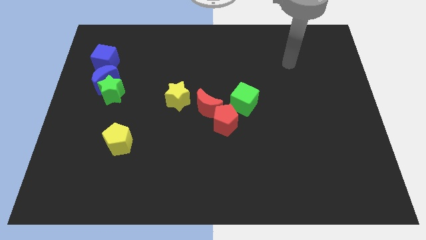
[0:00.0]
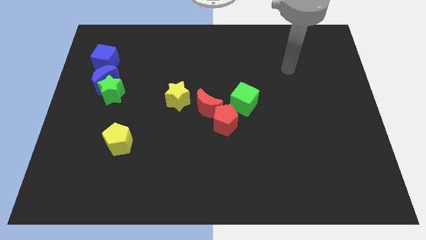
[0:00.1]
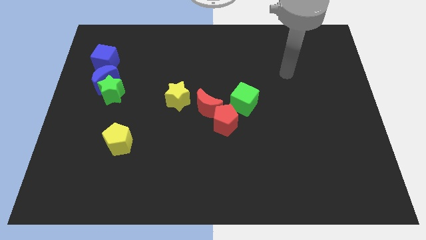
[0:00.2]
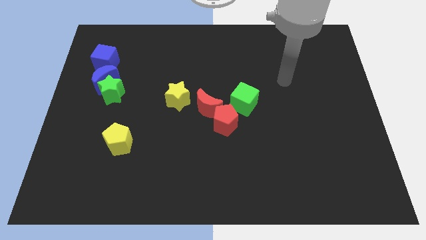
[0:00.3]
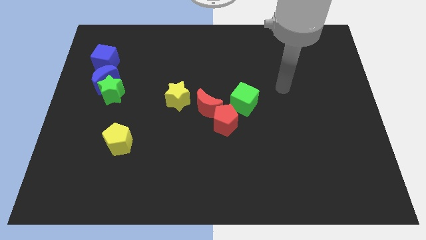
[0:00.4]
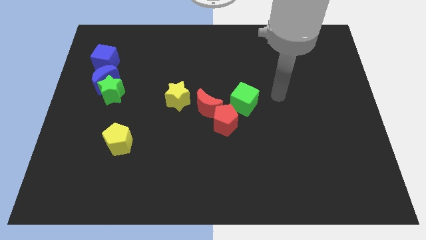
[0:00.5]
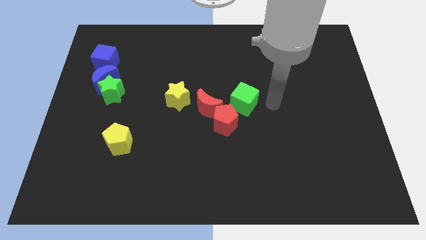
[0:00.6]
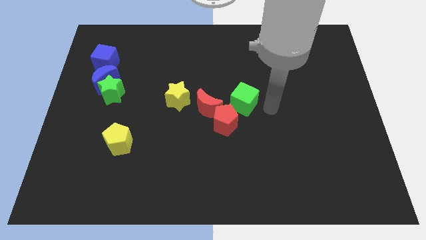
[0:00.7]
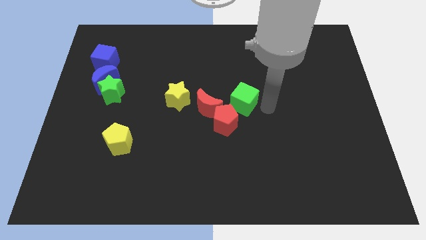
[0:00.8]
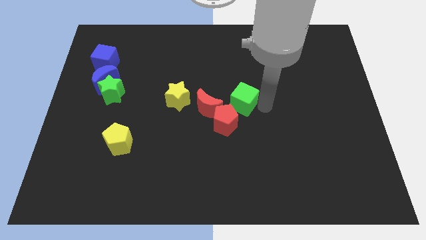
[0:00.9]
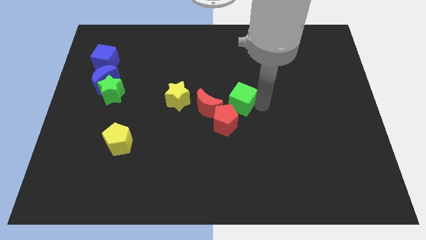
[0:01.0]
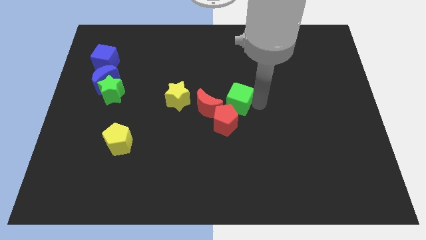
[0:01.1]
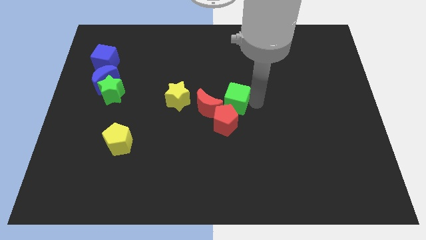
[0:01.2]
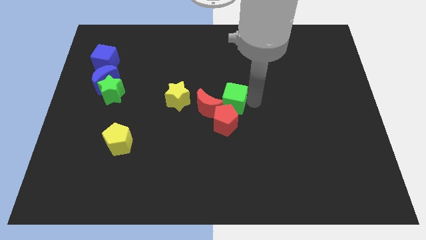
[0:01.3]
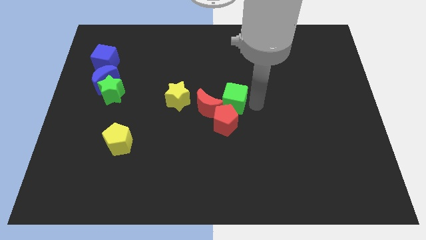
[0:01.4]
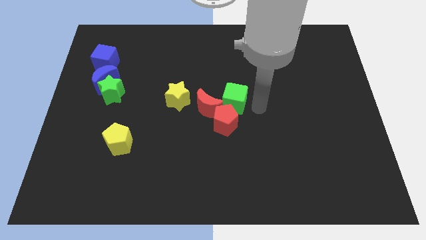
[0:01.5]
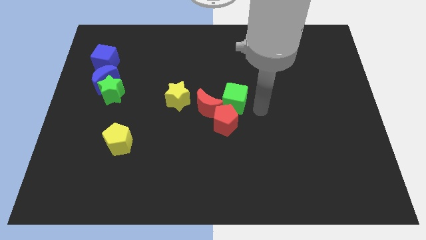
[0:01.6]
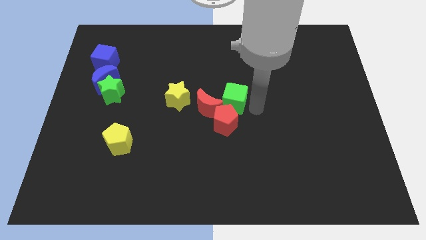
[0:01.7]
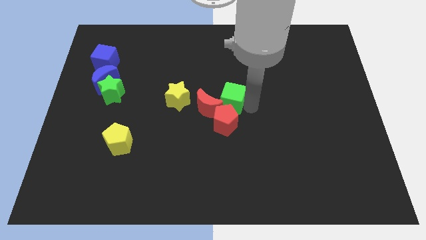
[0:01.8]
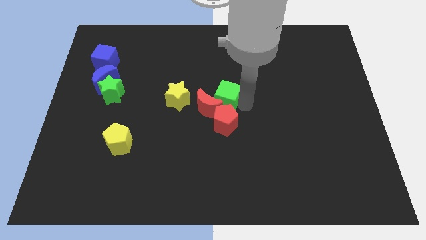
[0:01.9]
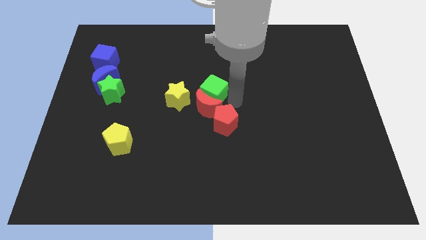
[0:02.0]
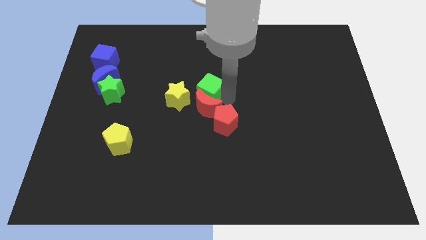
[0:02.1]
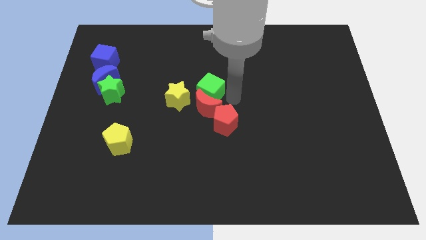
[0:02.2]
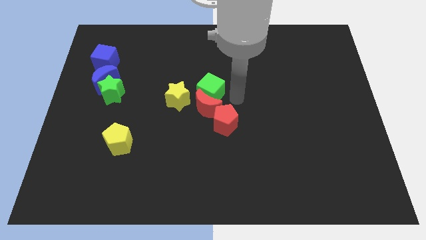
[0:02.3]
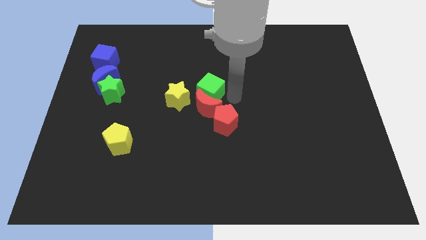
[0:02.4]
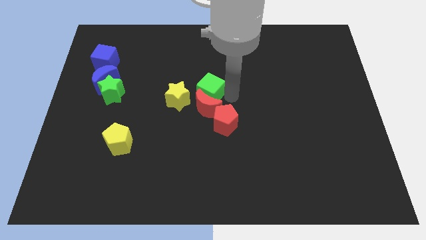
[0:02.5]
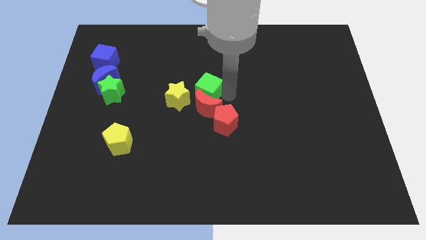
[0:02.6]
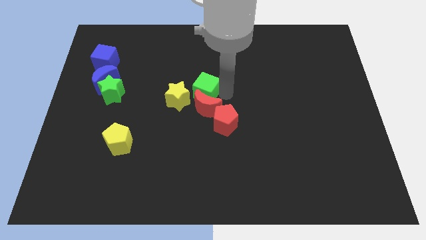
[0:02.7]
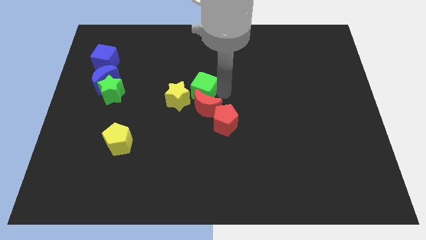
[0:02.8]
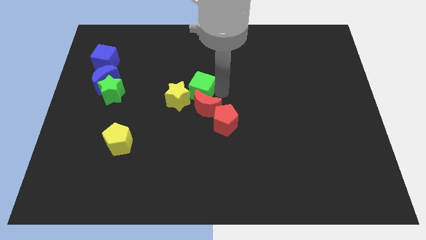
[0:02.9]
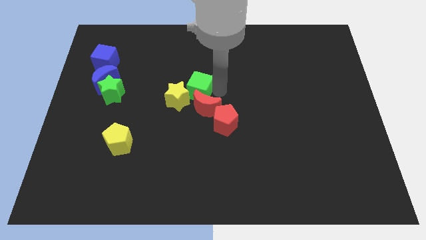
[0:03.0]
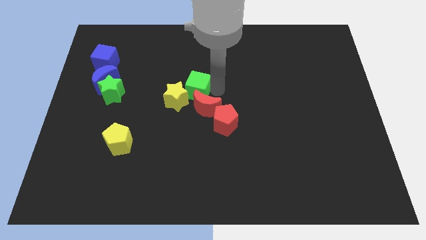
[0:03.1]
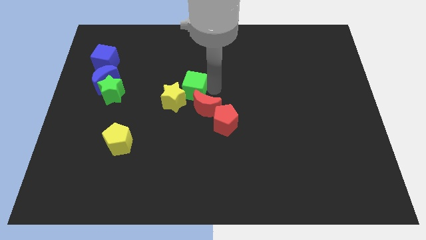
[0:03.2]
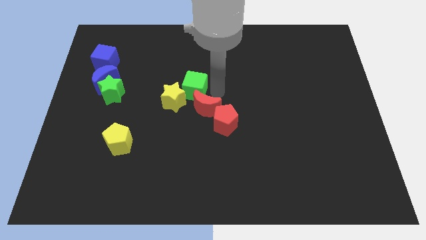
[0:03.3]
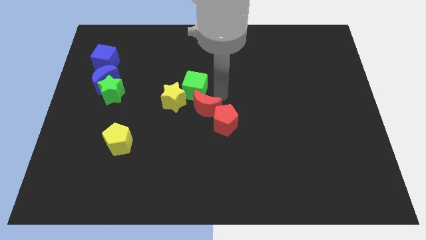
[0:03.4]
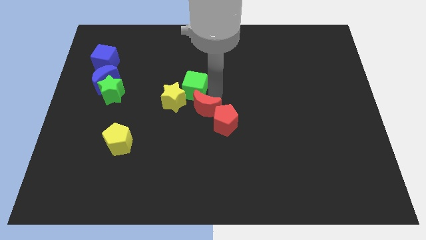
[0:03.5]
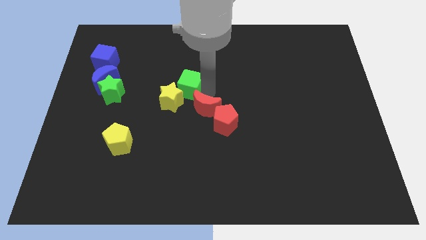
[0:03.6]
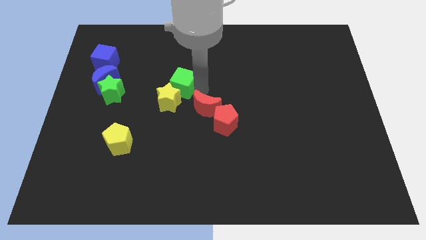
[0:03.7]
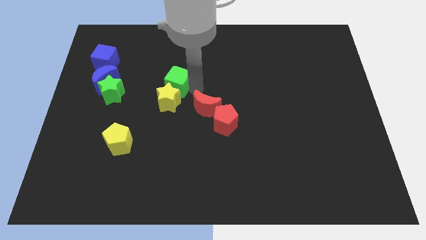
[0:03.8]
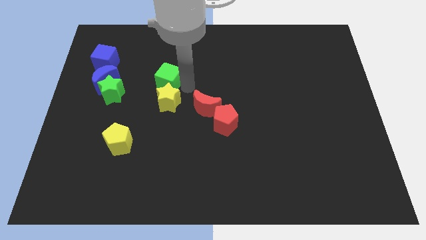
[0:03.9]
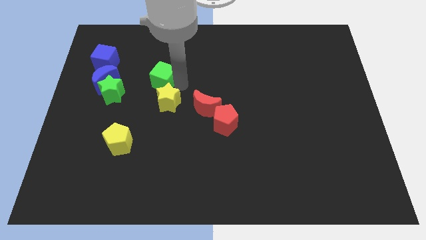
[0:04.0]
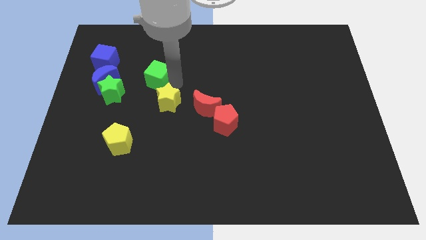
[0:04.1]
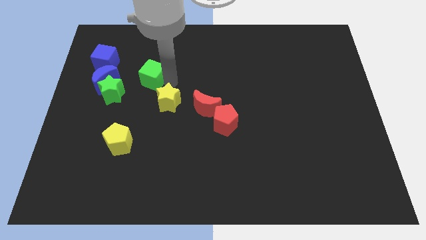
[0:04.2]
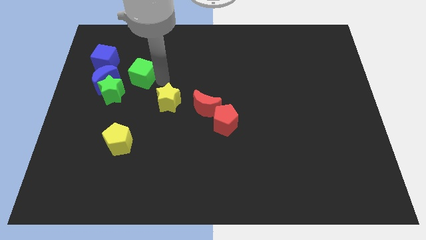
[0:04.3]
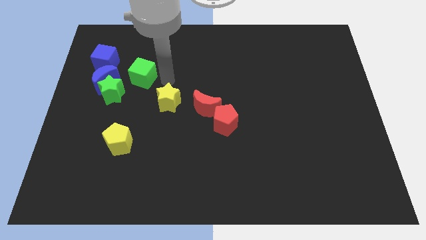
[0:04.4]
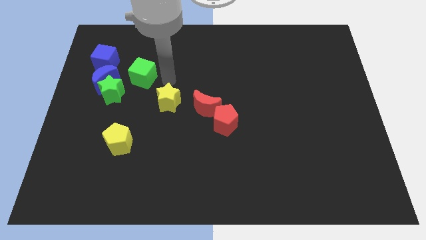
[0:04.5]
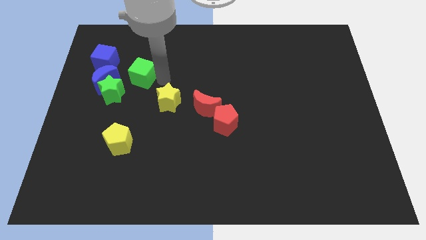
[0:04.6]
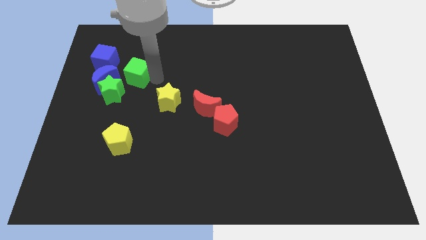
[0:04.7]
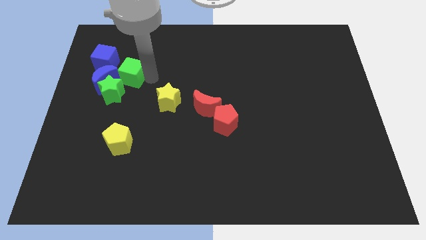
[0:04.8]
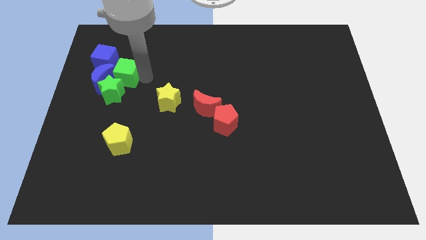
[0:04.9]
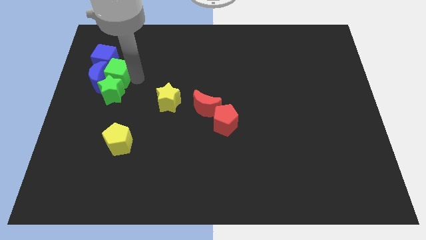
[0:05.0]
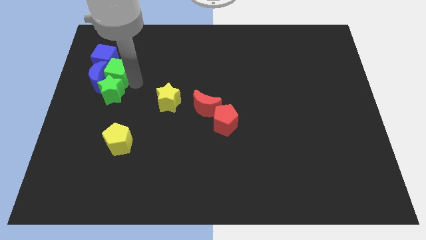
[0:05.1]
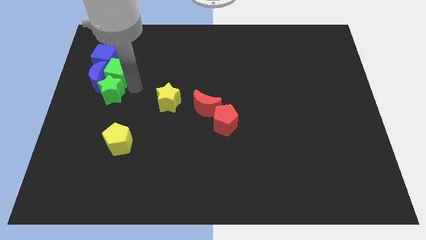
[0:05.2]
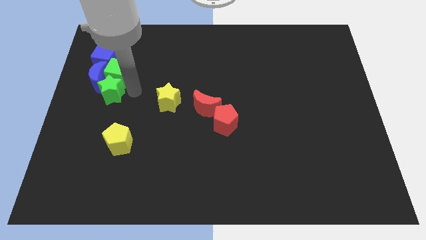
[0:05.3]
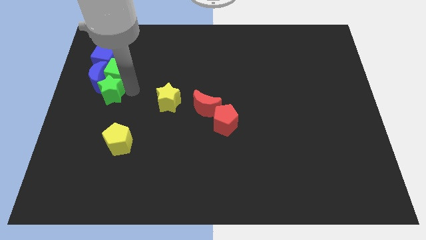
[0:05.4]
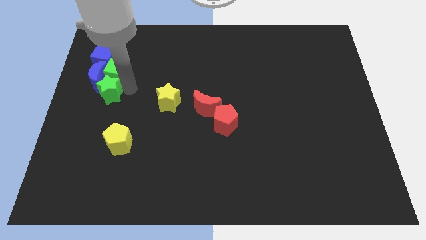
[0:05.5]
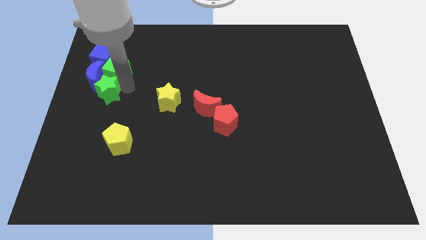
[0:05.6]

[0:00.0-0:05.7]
put the green cube towards the blue cube

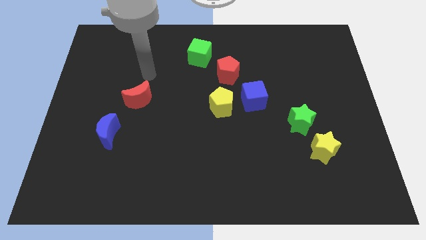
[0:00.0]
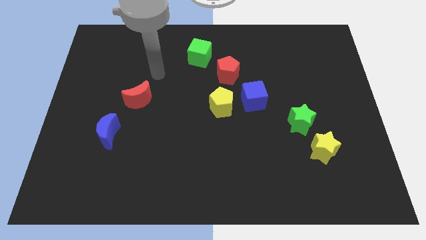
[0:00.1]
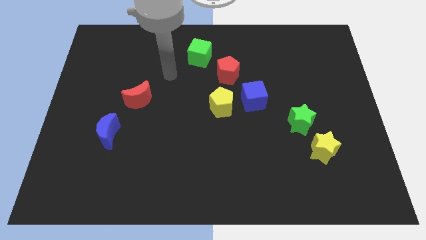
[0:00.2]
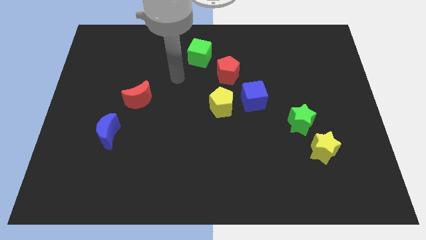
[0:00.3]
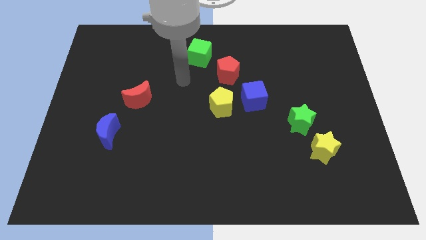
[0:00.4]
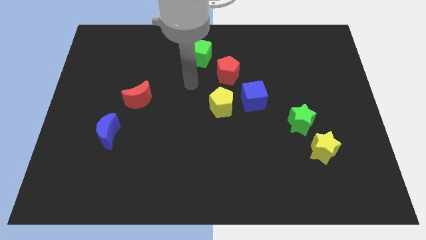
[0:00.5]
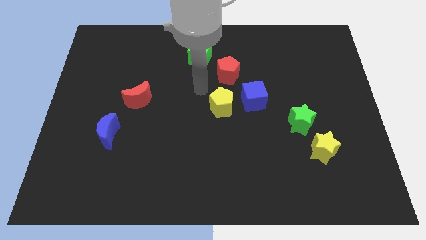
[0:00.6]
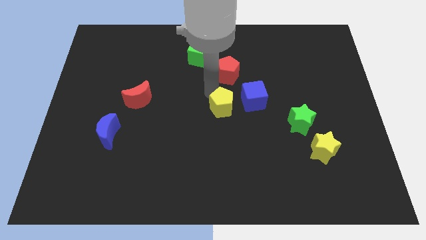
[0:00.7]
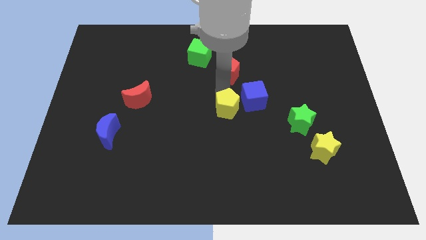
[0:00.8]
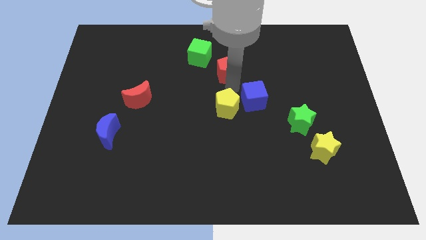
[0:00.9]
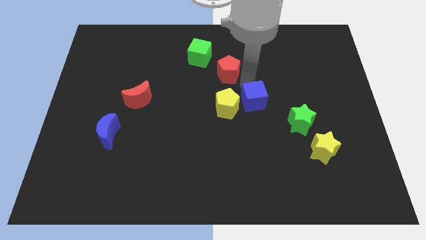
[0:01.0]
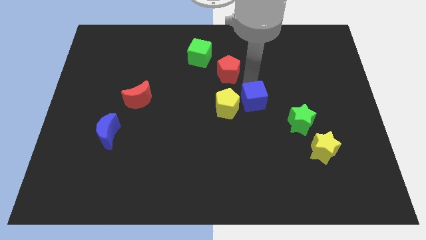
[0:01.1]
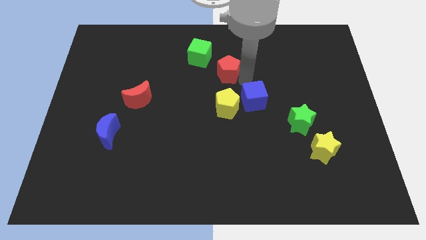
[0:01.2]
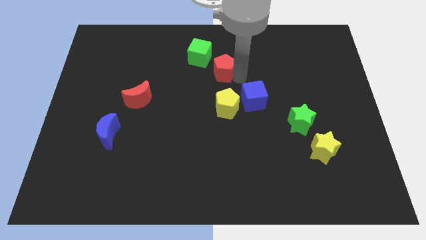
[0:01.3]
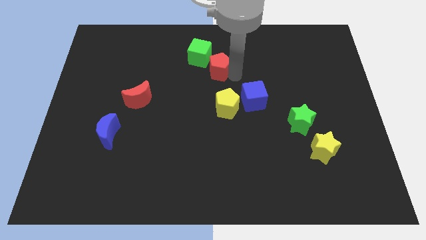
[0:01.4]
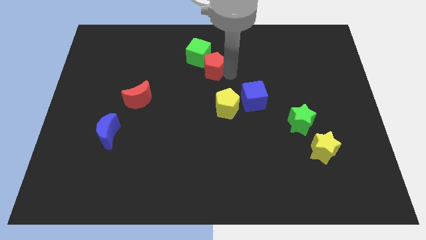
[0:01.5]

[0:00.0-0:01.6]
slide the red pentagon next to the green cube
